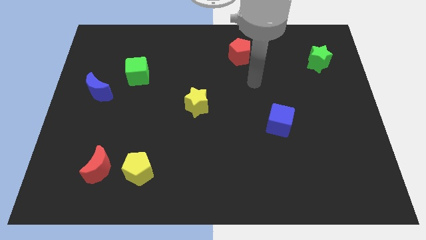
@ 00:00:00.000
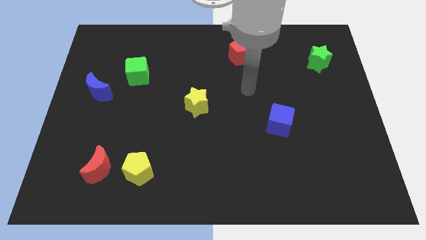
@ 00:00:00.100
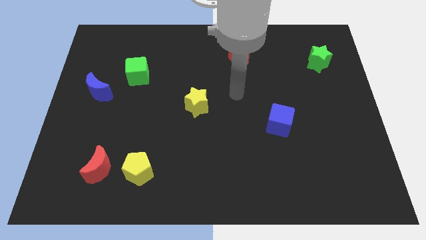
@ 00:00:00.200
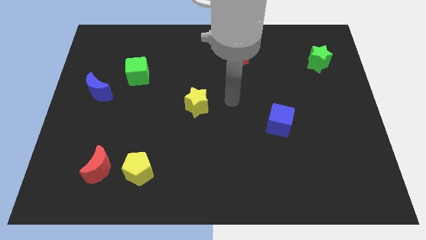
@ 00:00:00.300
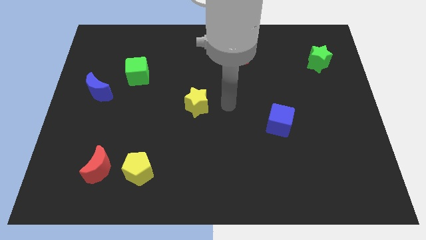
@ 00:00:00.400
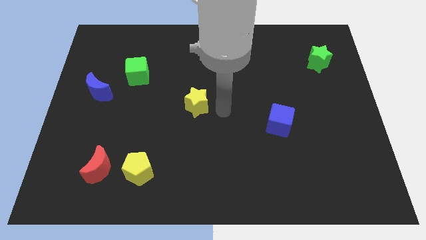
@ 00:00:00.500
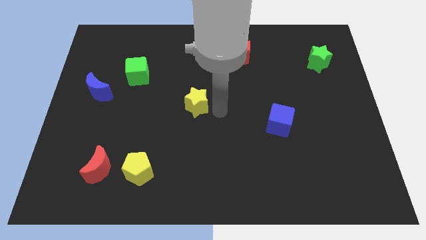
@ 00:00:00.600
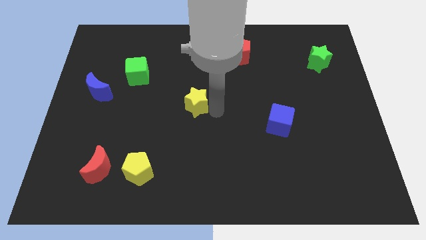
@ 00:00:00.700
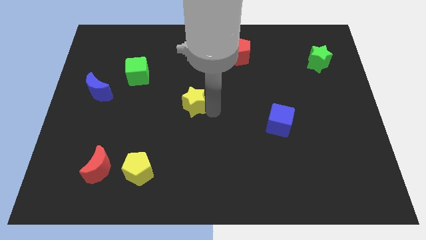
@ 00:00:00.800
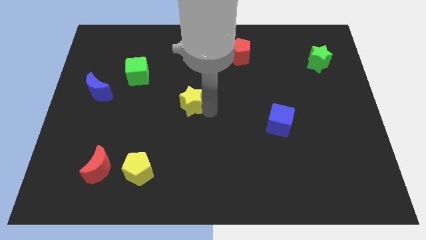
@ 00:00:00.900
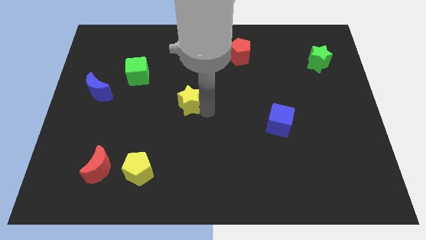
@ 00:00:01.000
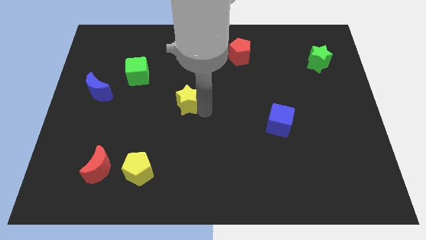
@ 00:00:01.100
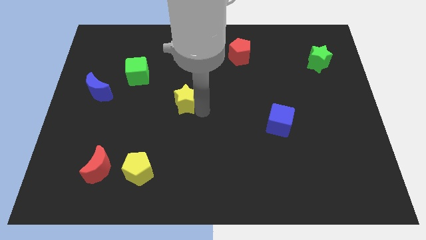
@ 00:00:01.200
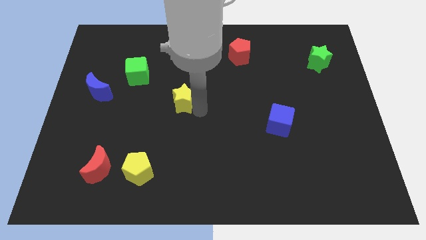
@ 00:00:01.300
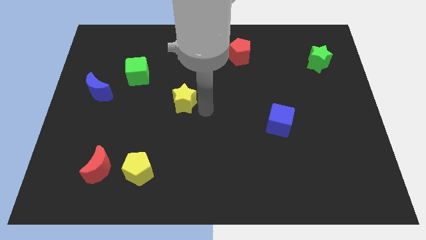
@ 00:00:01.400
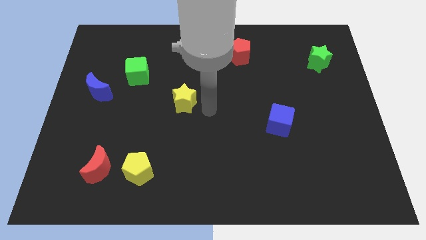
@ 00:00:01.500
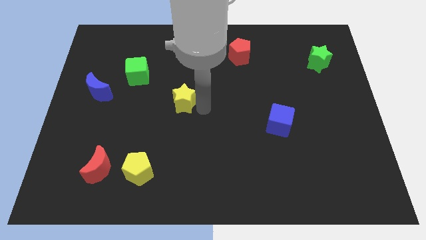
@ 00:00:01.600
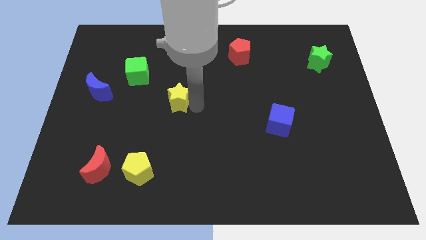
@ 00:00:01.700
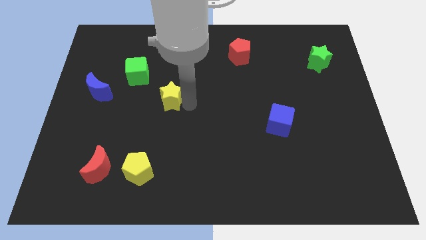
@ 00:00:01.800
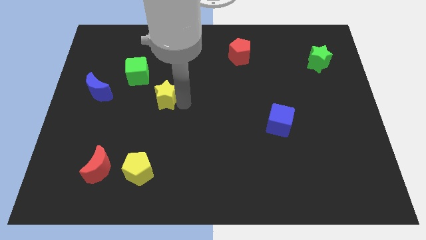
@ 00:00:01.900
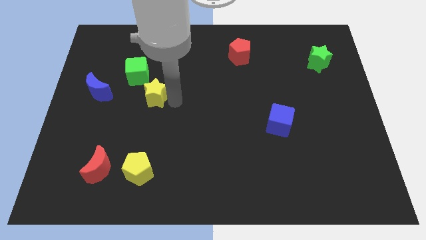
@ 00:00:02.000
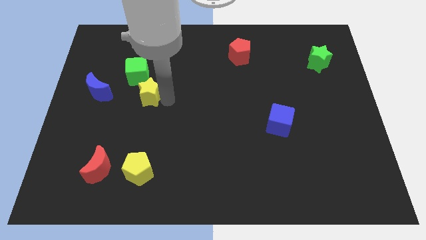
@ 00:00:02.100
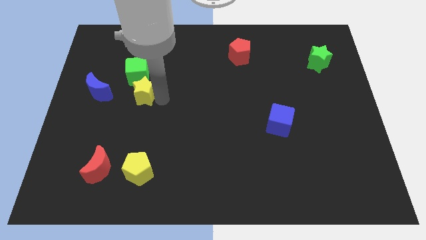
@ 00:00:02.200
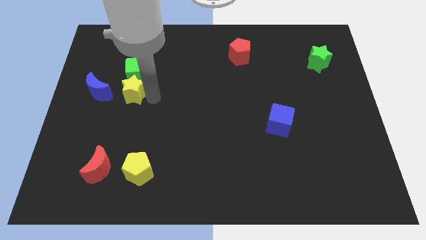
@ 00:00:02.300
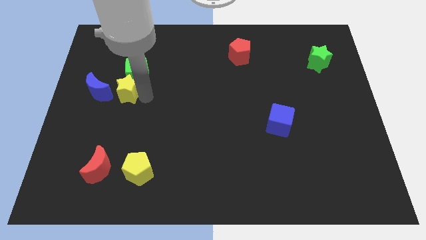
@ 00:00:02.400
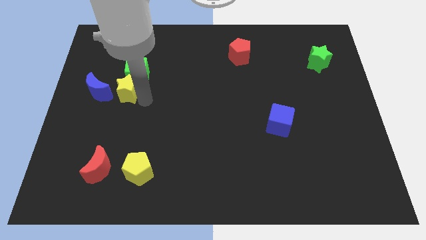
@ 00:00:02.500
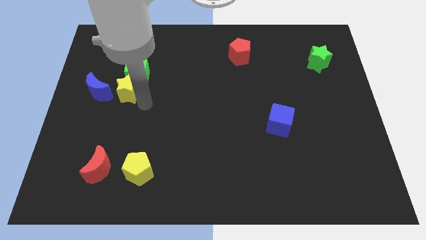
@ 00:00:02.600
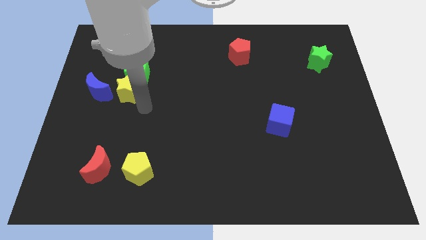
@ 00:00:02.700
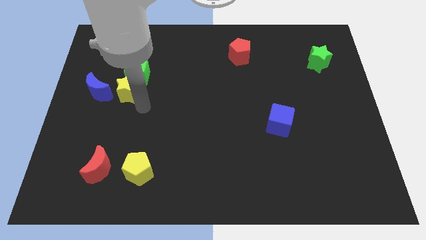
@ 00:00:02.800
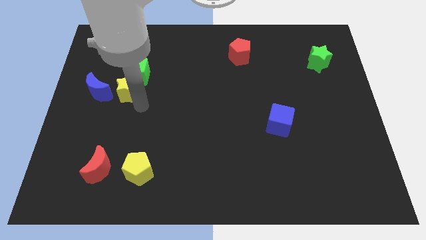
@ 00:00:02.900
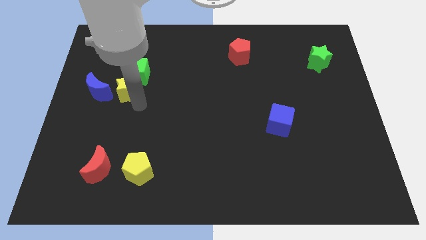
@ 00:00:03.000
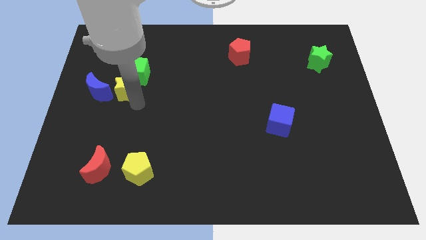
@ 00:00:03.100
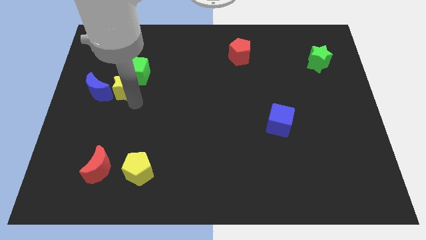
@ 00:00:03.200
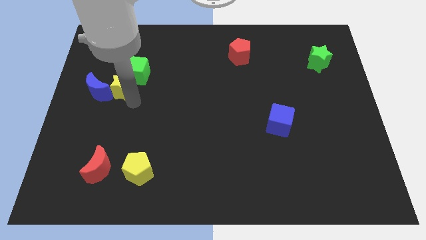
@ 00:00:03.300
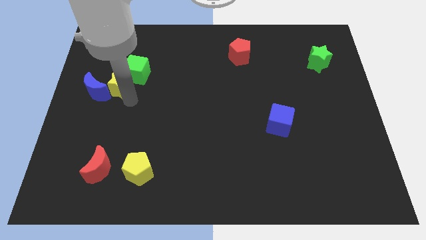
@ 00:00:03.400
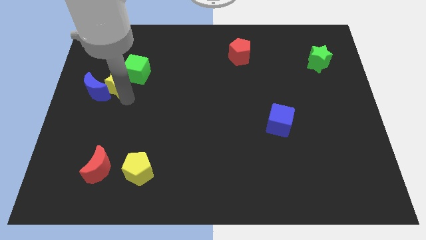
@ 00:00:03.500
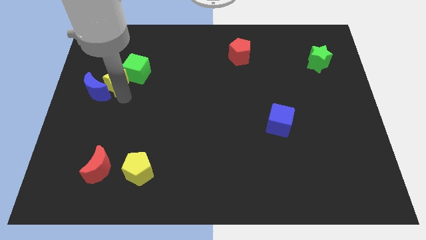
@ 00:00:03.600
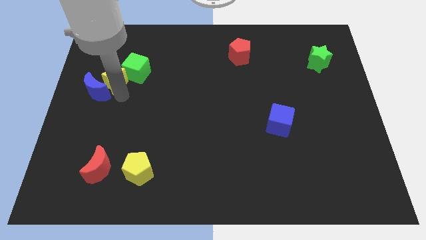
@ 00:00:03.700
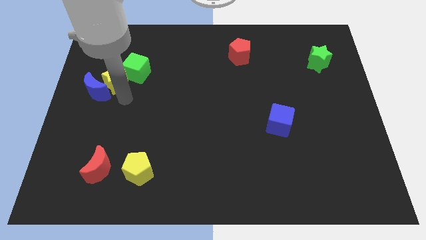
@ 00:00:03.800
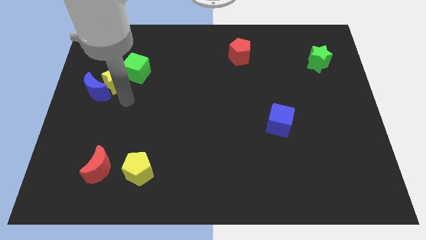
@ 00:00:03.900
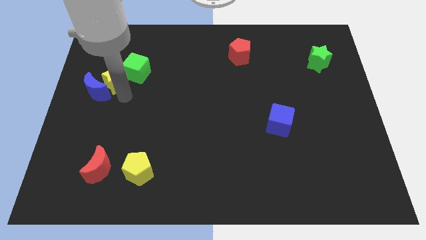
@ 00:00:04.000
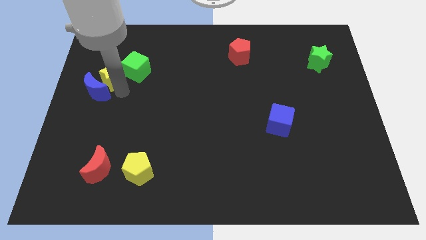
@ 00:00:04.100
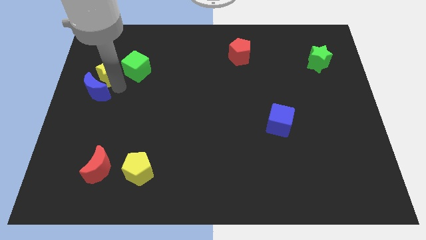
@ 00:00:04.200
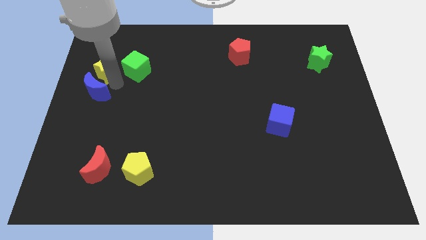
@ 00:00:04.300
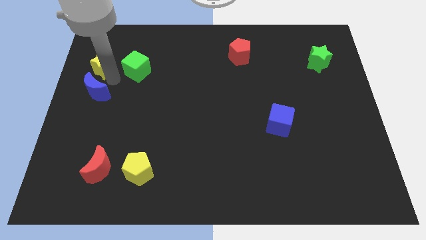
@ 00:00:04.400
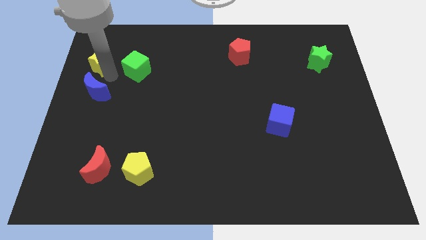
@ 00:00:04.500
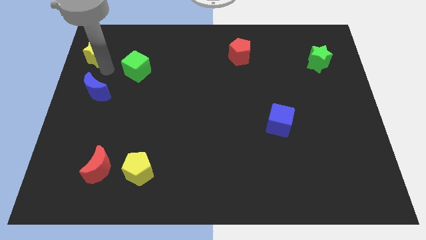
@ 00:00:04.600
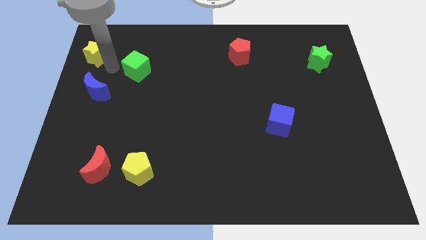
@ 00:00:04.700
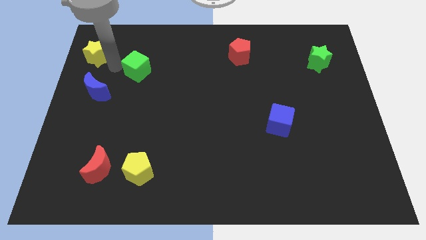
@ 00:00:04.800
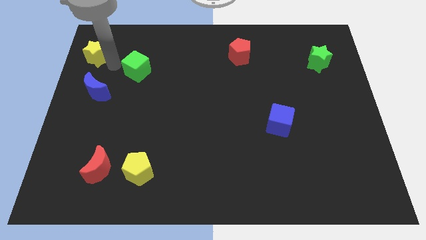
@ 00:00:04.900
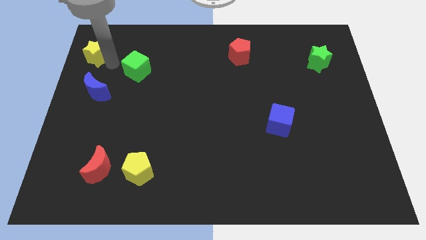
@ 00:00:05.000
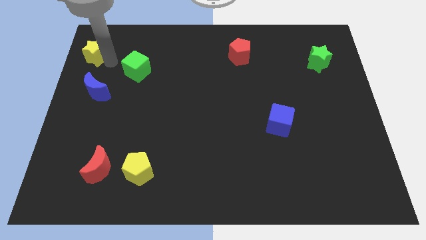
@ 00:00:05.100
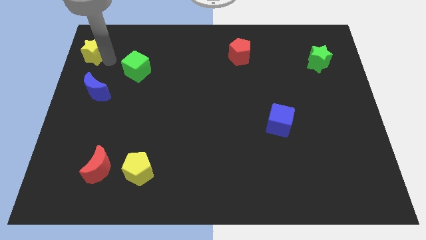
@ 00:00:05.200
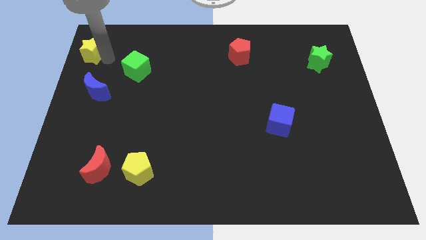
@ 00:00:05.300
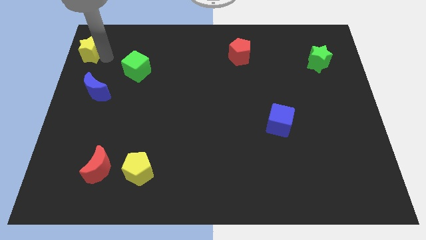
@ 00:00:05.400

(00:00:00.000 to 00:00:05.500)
push the yellow star to the upper left corner

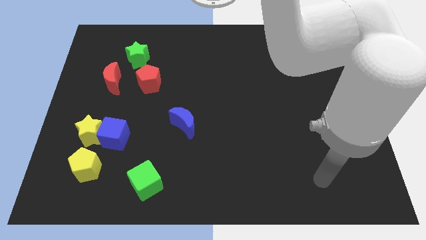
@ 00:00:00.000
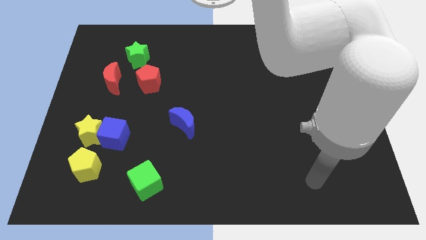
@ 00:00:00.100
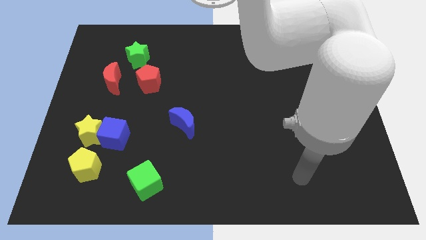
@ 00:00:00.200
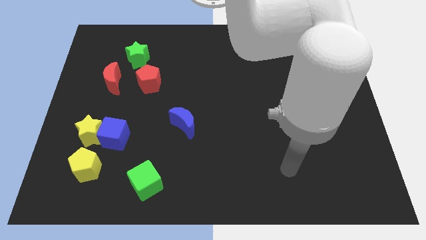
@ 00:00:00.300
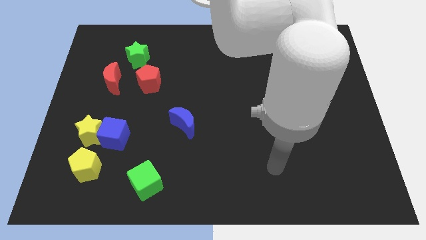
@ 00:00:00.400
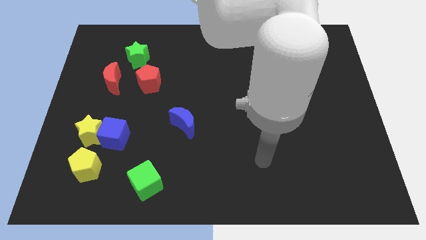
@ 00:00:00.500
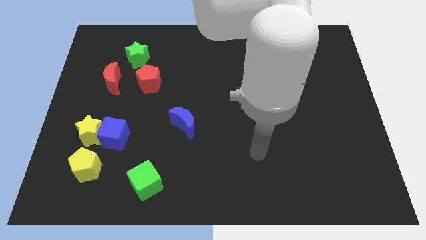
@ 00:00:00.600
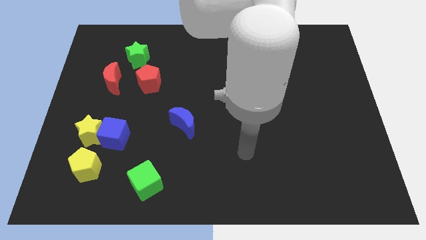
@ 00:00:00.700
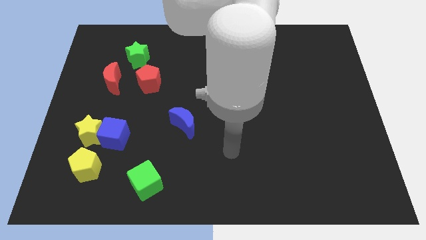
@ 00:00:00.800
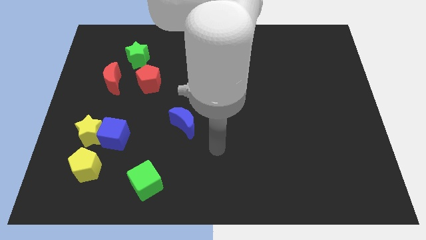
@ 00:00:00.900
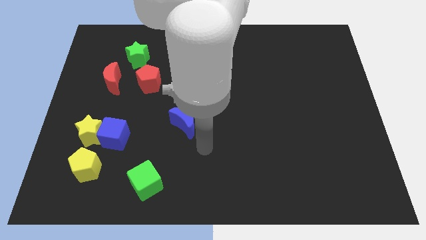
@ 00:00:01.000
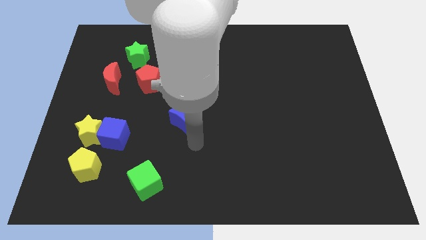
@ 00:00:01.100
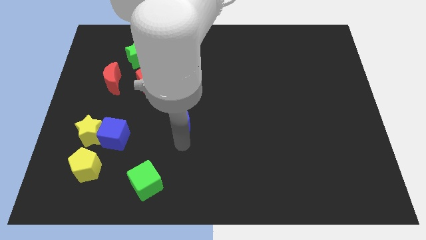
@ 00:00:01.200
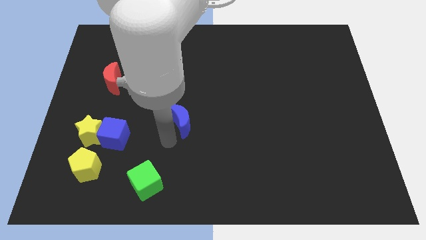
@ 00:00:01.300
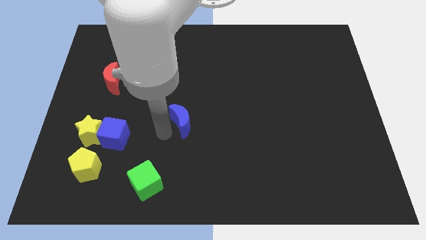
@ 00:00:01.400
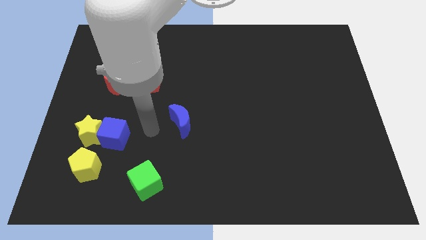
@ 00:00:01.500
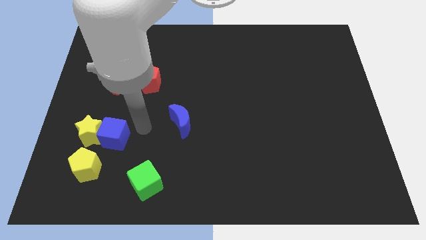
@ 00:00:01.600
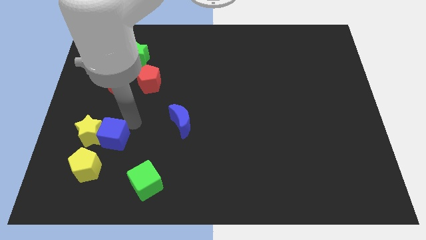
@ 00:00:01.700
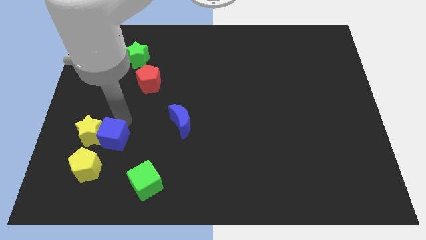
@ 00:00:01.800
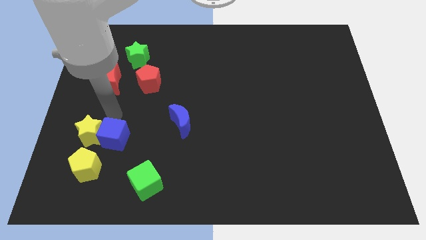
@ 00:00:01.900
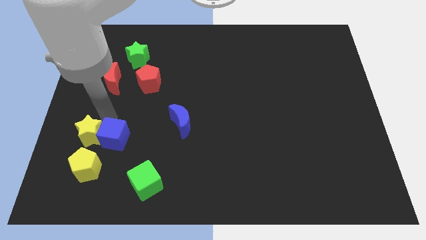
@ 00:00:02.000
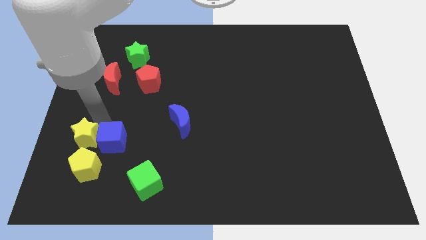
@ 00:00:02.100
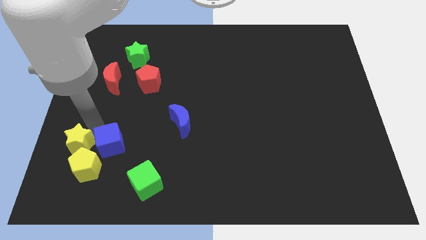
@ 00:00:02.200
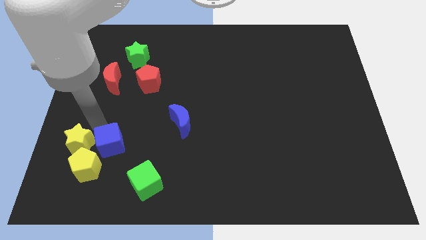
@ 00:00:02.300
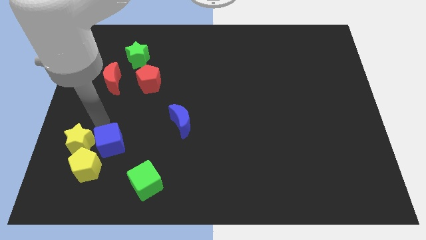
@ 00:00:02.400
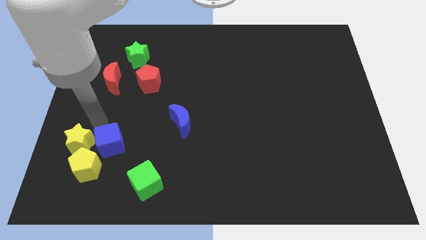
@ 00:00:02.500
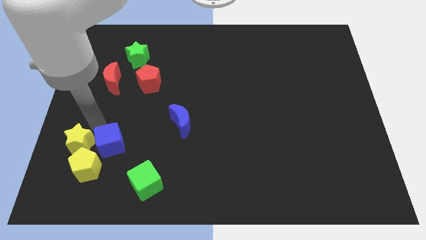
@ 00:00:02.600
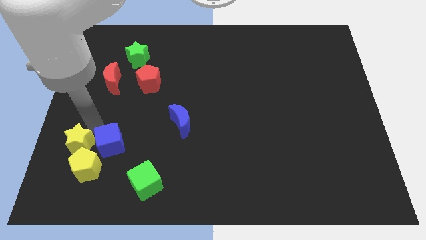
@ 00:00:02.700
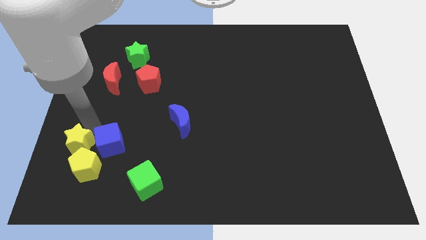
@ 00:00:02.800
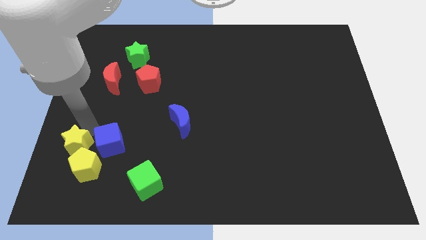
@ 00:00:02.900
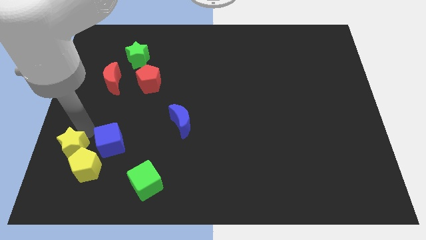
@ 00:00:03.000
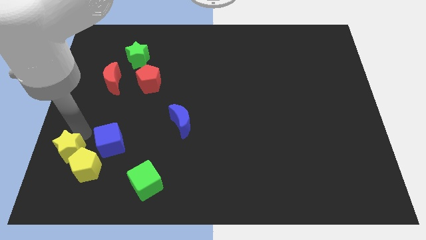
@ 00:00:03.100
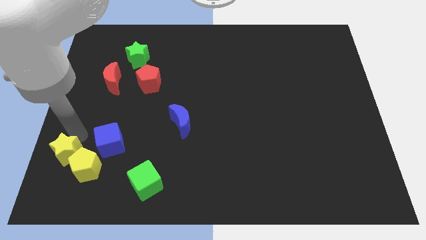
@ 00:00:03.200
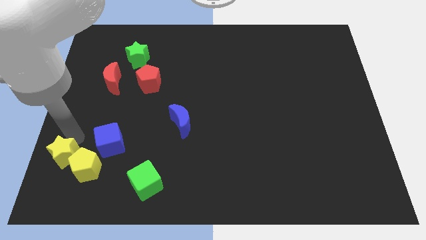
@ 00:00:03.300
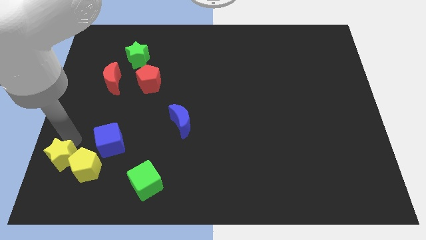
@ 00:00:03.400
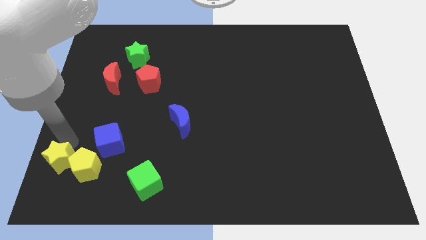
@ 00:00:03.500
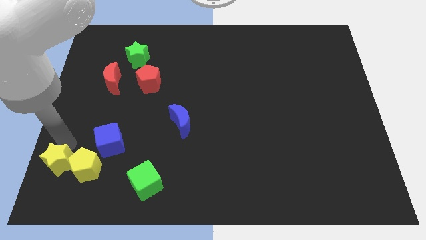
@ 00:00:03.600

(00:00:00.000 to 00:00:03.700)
move the yellow star to the bottom left
